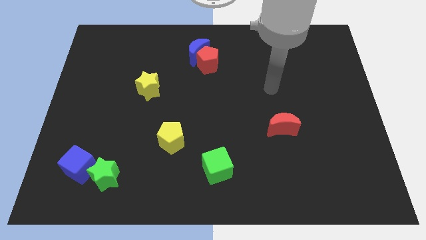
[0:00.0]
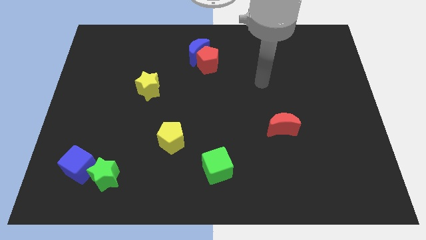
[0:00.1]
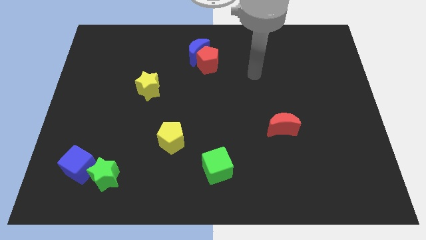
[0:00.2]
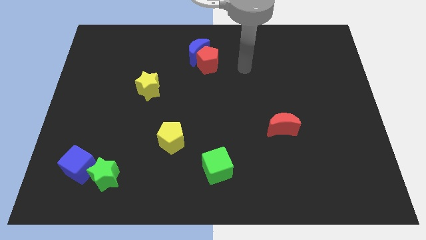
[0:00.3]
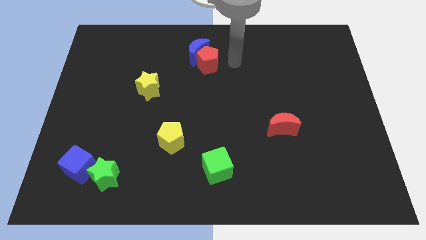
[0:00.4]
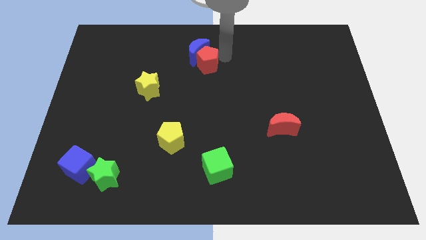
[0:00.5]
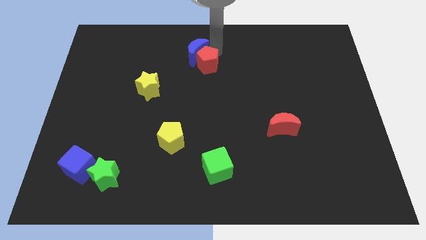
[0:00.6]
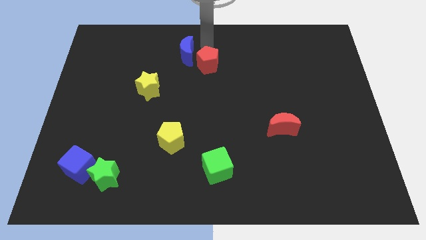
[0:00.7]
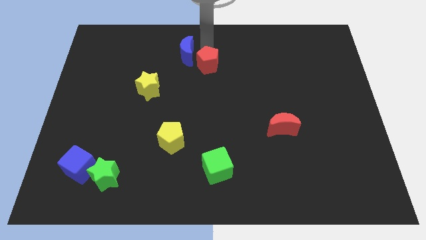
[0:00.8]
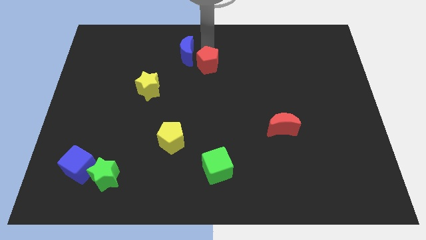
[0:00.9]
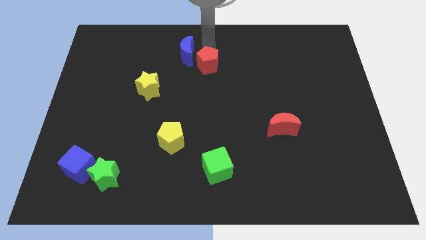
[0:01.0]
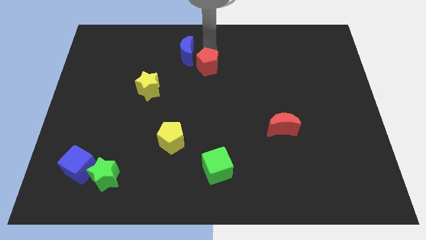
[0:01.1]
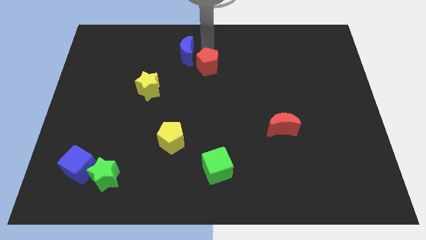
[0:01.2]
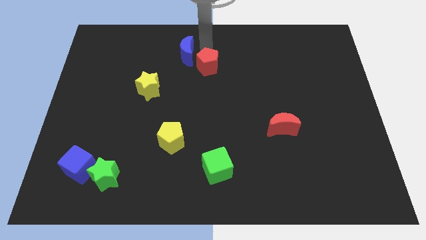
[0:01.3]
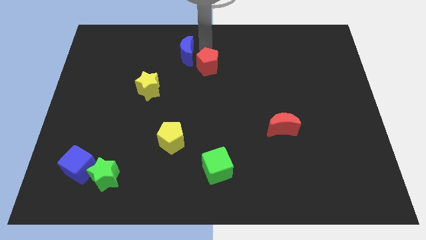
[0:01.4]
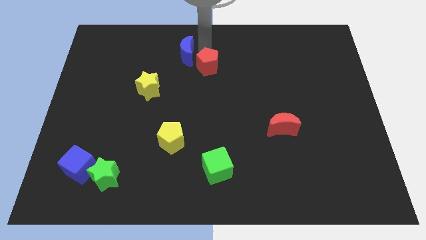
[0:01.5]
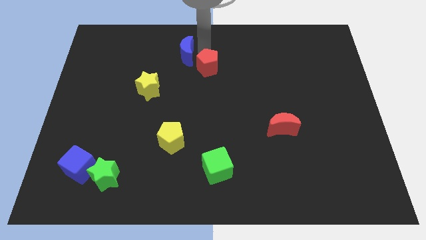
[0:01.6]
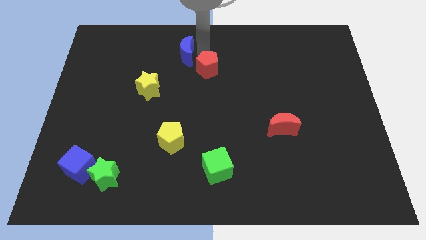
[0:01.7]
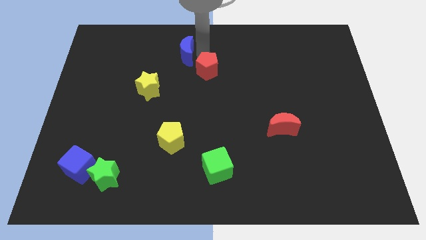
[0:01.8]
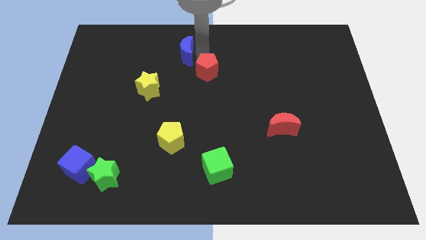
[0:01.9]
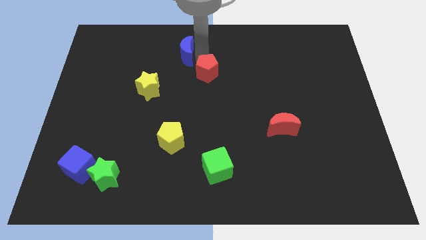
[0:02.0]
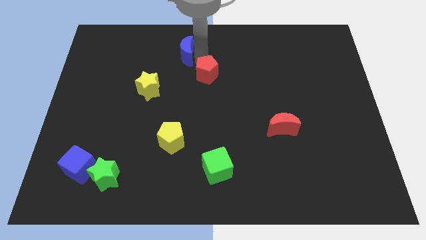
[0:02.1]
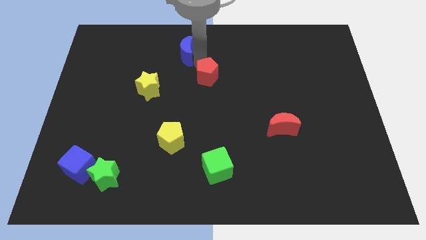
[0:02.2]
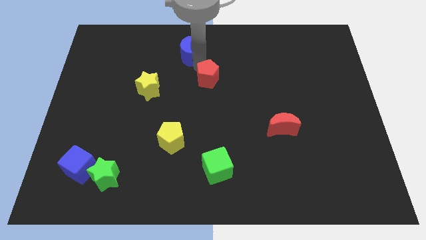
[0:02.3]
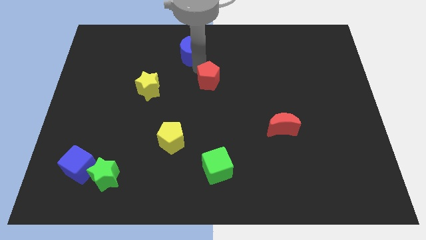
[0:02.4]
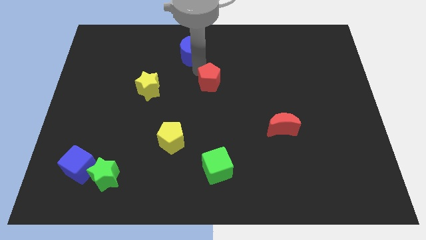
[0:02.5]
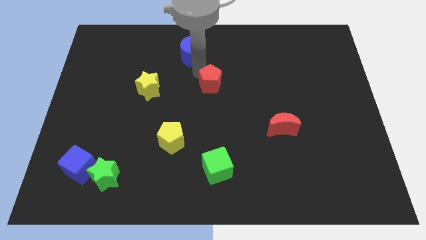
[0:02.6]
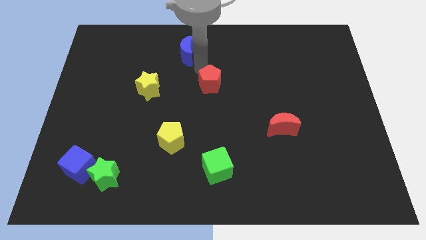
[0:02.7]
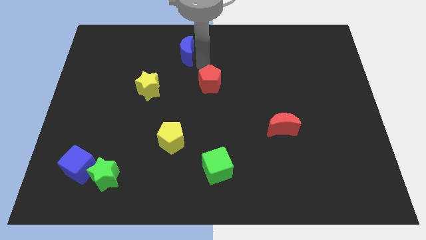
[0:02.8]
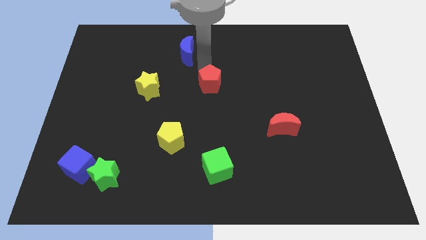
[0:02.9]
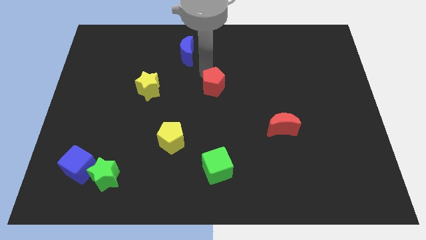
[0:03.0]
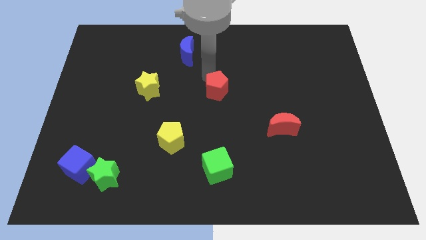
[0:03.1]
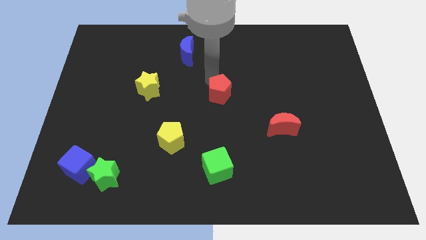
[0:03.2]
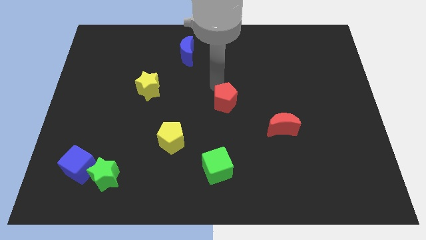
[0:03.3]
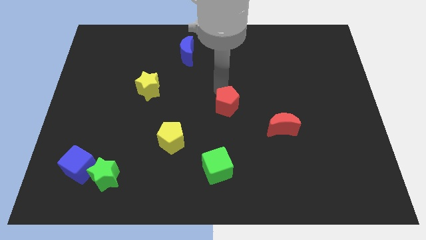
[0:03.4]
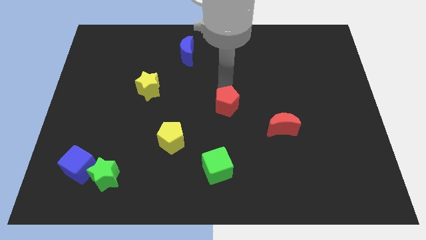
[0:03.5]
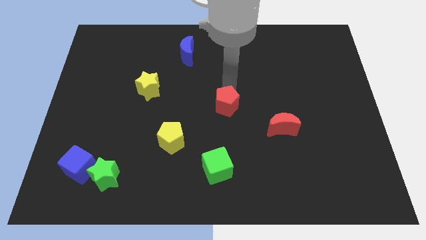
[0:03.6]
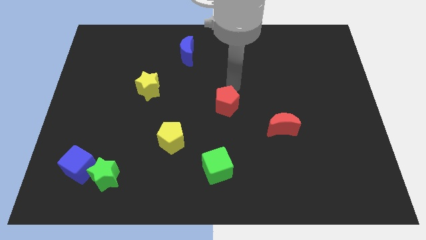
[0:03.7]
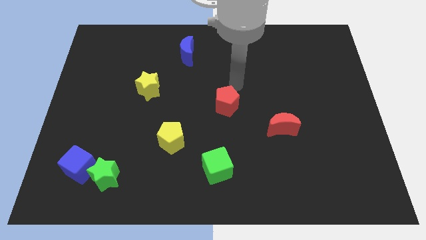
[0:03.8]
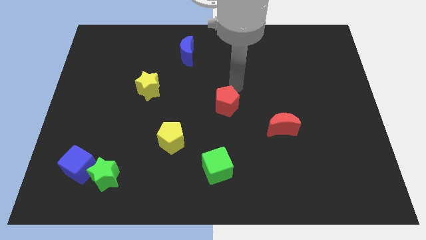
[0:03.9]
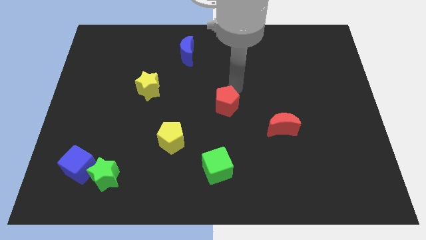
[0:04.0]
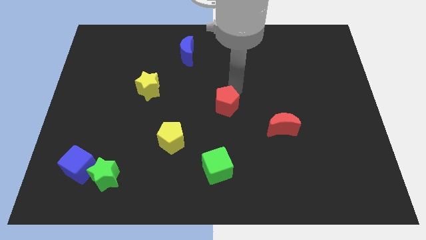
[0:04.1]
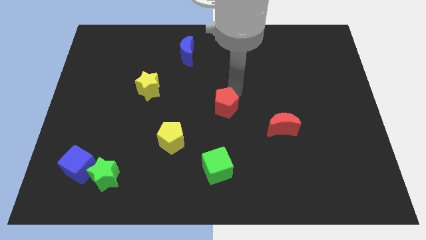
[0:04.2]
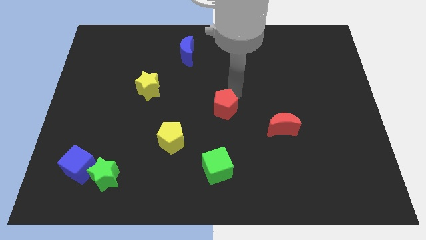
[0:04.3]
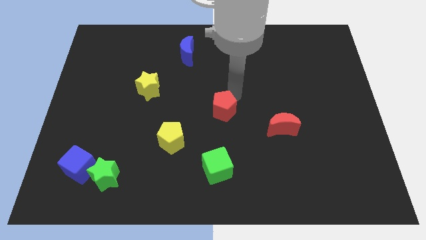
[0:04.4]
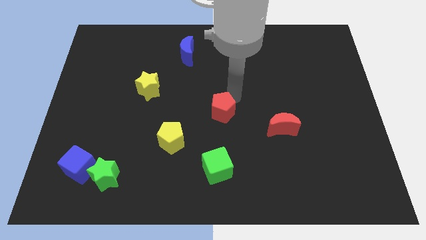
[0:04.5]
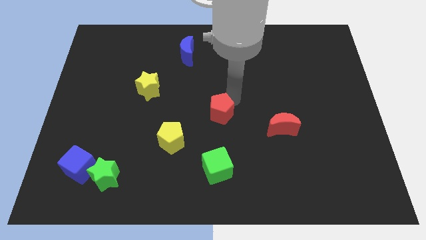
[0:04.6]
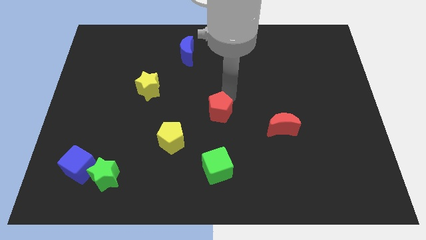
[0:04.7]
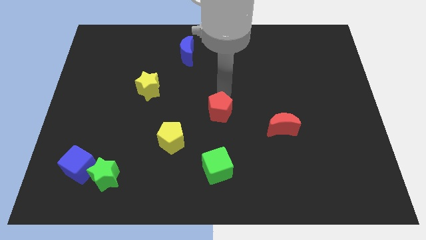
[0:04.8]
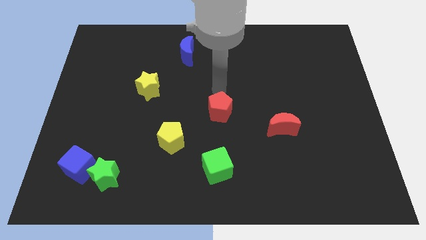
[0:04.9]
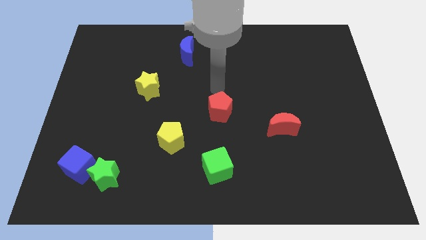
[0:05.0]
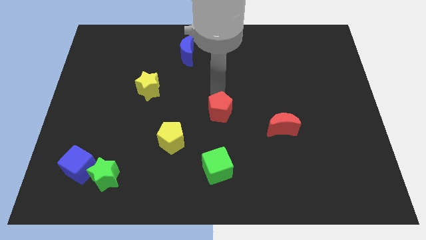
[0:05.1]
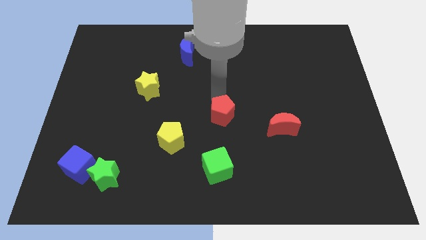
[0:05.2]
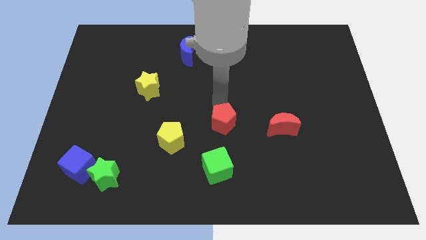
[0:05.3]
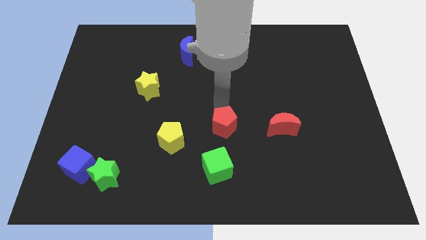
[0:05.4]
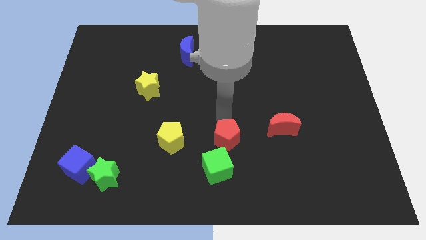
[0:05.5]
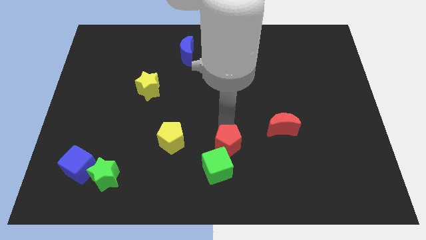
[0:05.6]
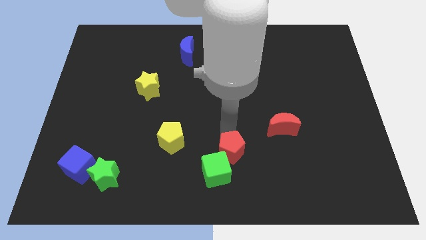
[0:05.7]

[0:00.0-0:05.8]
move the red pentagon towards the green cube

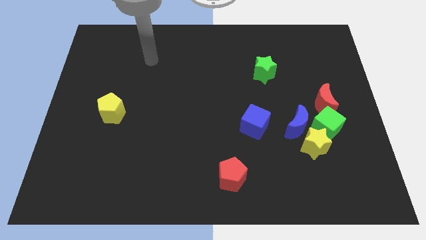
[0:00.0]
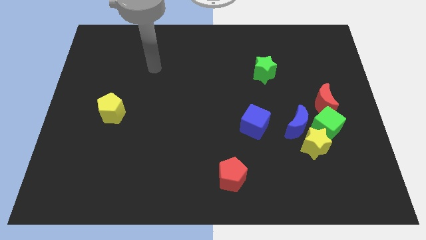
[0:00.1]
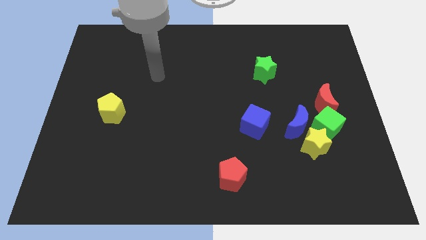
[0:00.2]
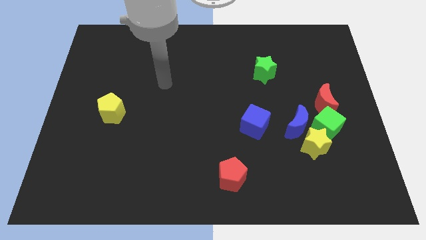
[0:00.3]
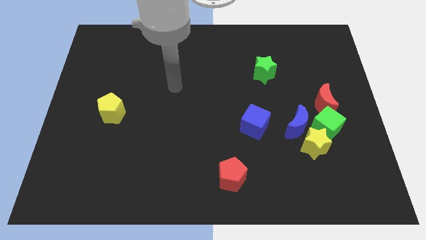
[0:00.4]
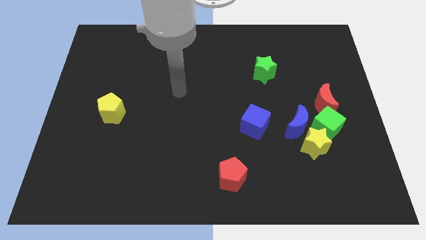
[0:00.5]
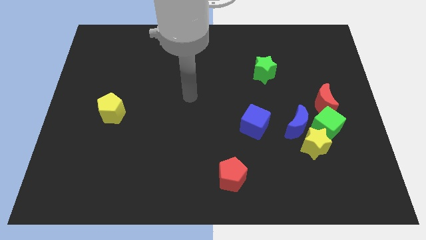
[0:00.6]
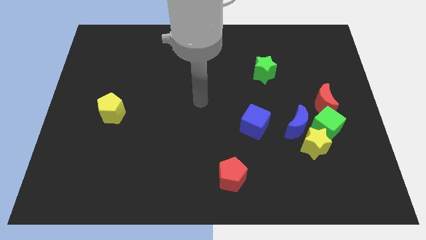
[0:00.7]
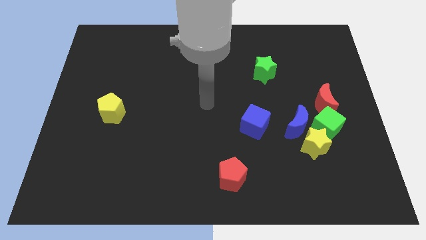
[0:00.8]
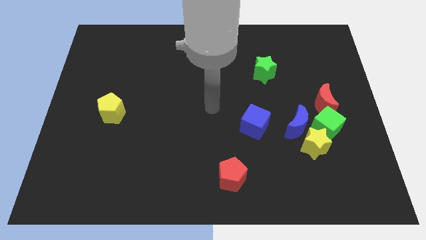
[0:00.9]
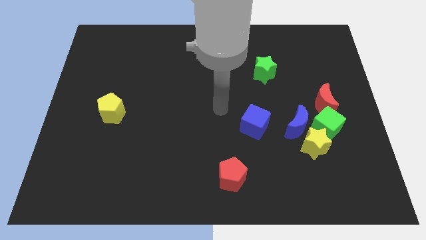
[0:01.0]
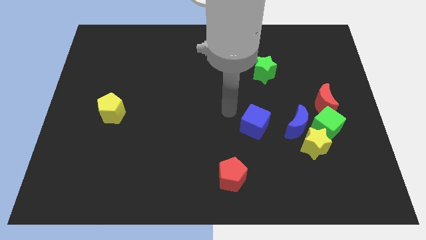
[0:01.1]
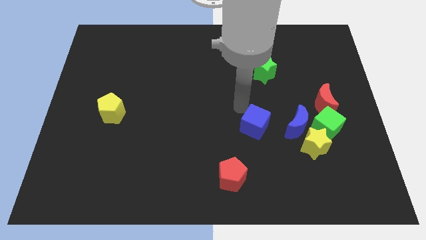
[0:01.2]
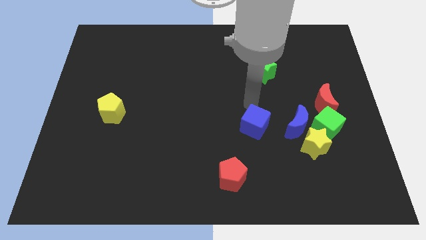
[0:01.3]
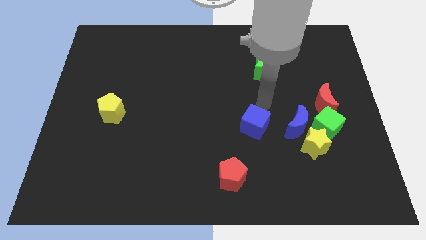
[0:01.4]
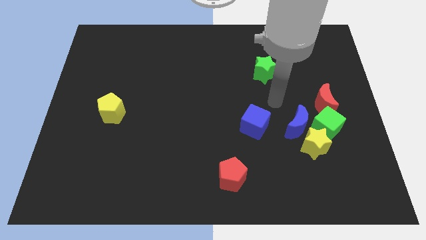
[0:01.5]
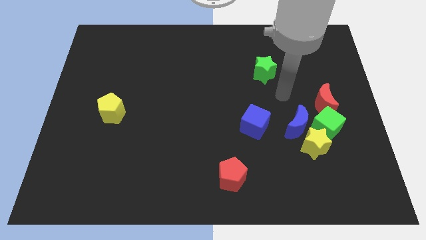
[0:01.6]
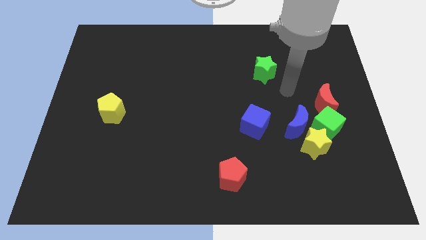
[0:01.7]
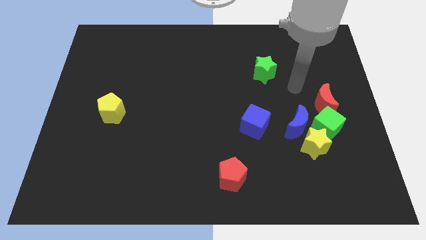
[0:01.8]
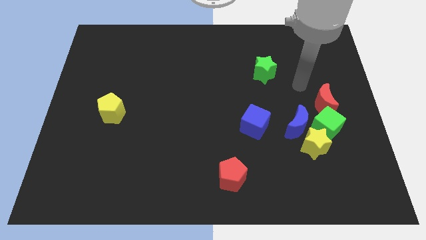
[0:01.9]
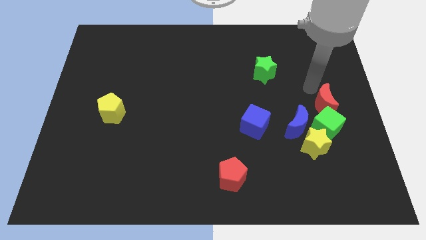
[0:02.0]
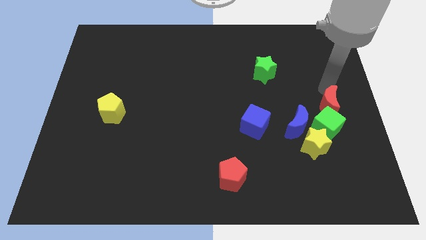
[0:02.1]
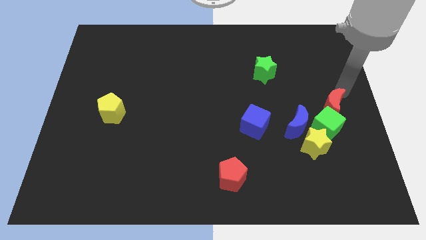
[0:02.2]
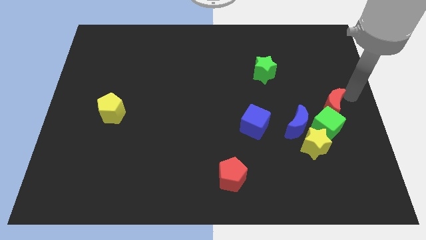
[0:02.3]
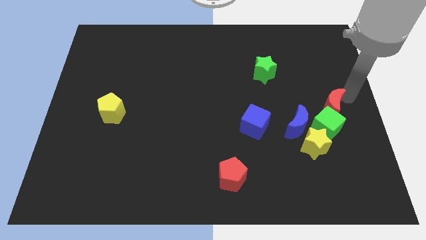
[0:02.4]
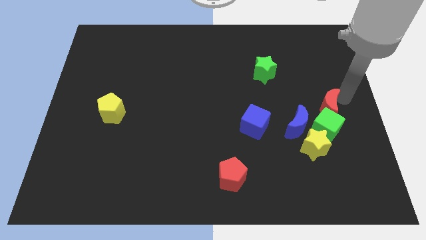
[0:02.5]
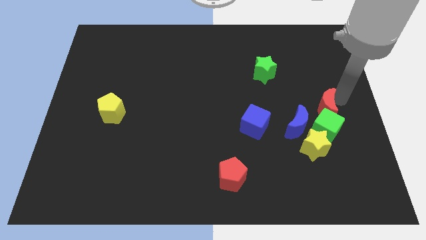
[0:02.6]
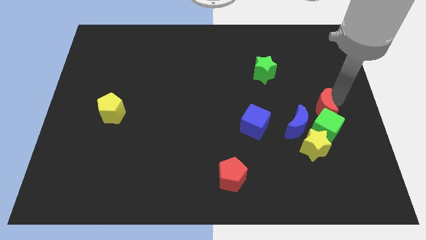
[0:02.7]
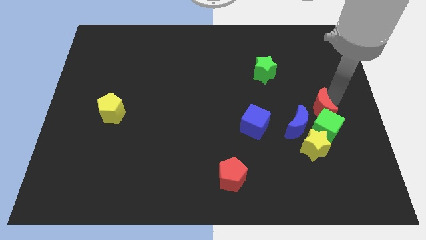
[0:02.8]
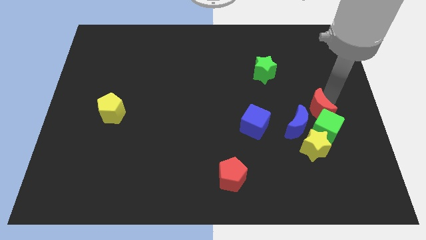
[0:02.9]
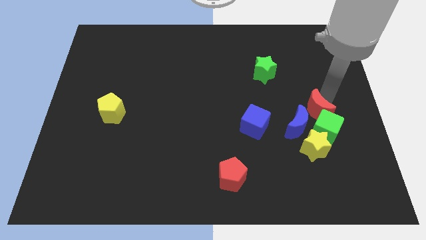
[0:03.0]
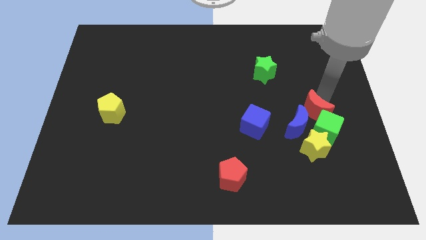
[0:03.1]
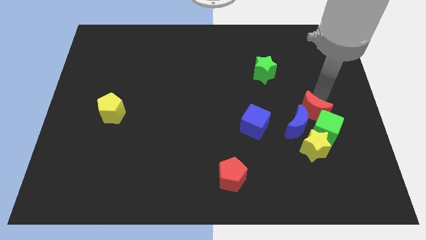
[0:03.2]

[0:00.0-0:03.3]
slide the red moon to the blue moon
